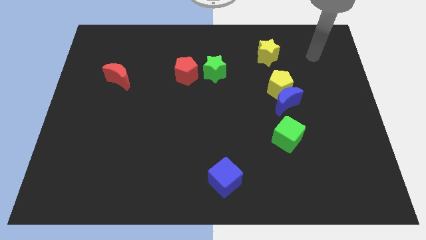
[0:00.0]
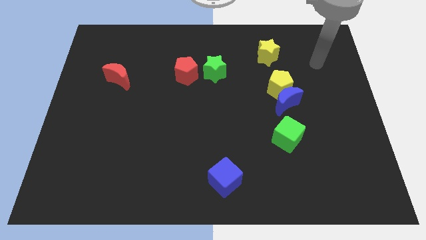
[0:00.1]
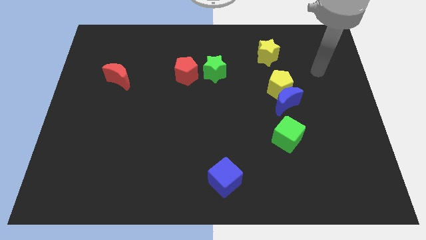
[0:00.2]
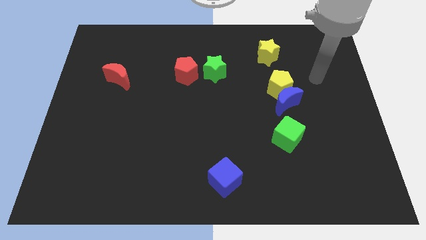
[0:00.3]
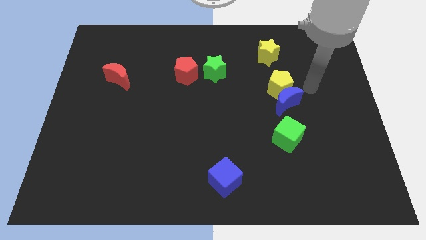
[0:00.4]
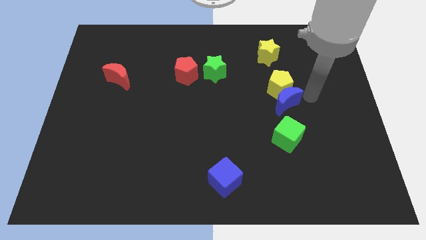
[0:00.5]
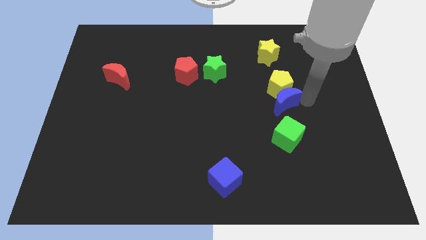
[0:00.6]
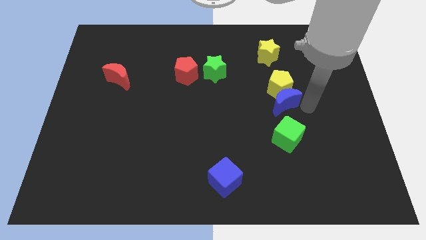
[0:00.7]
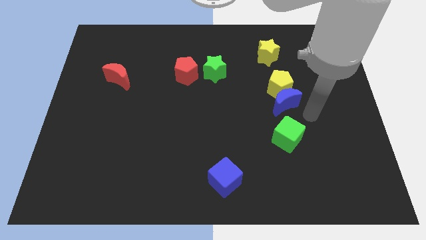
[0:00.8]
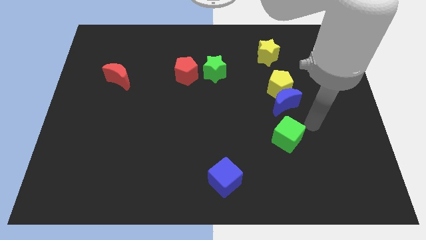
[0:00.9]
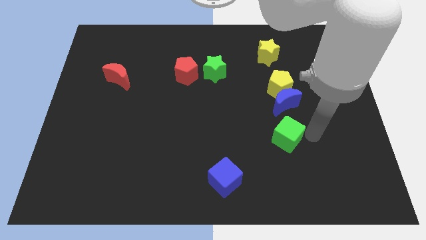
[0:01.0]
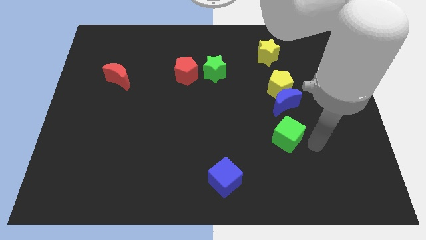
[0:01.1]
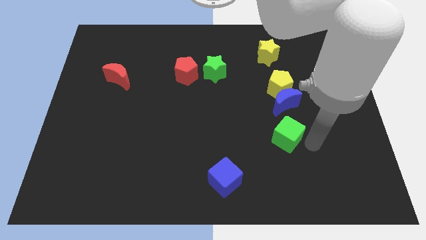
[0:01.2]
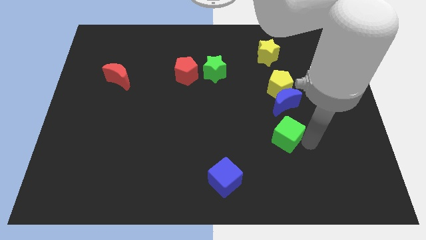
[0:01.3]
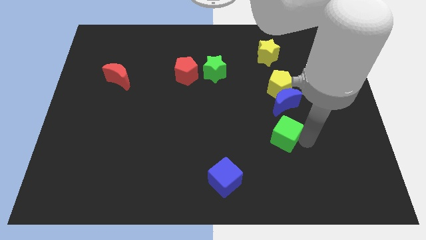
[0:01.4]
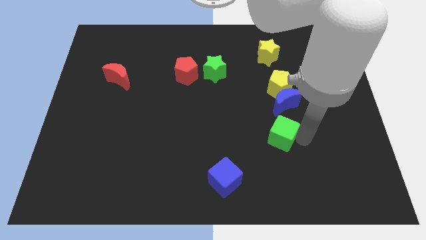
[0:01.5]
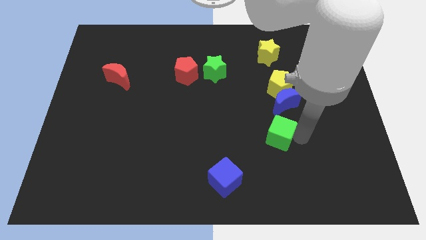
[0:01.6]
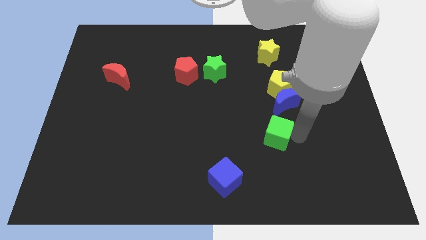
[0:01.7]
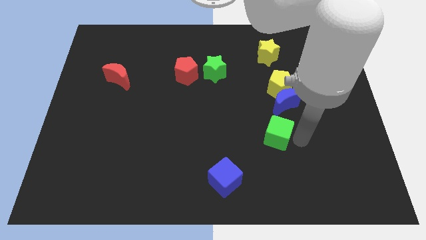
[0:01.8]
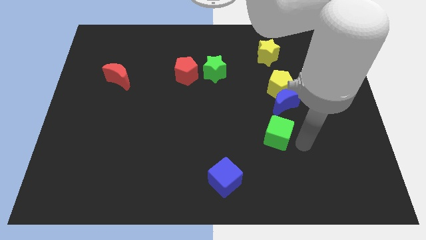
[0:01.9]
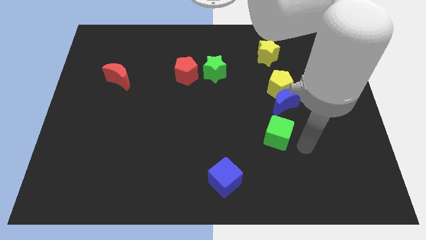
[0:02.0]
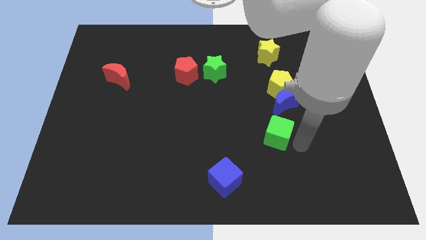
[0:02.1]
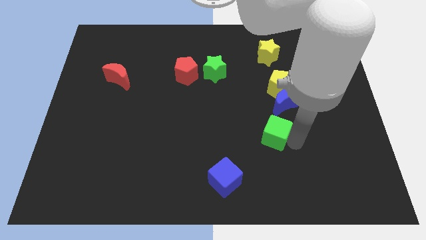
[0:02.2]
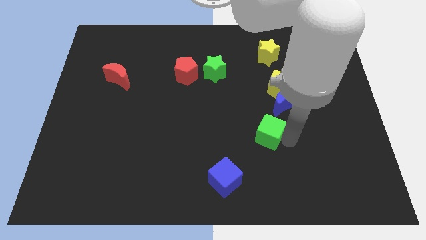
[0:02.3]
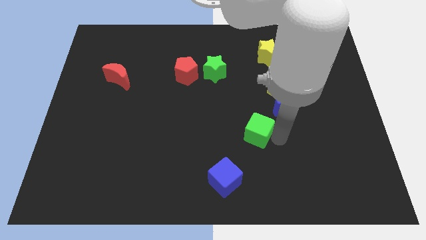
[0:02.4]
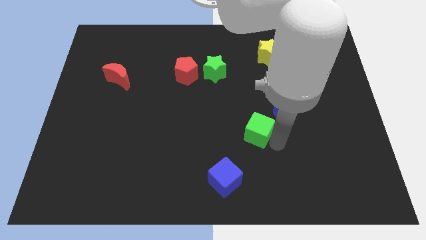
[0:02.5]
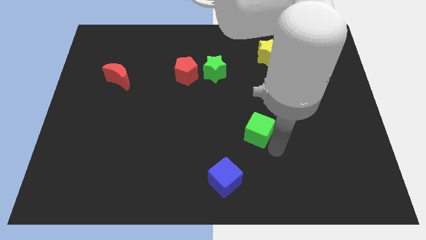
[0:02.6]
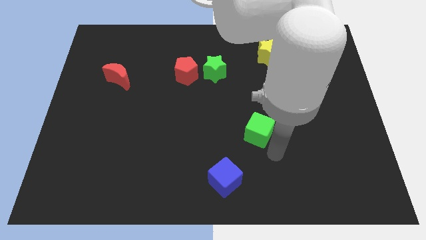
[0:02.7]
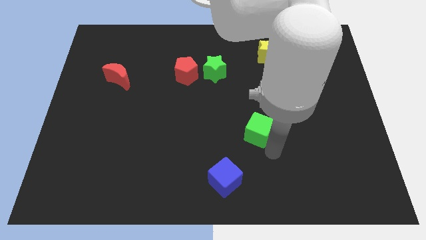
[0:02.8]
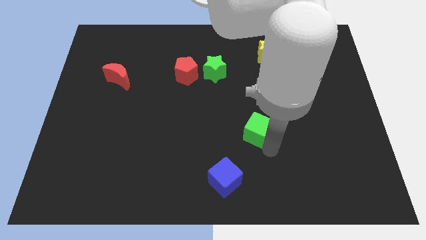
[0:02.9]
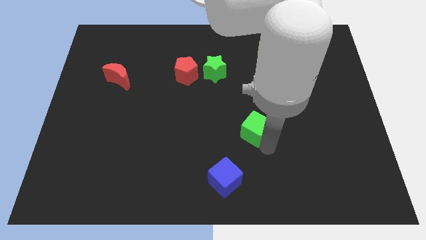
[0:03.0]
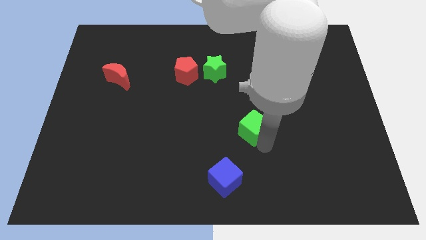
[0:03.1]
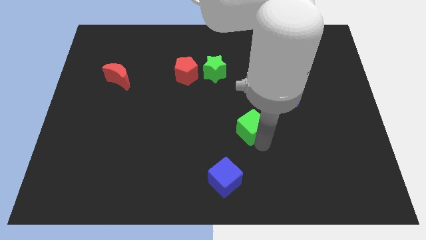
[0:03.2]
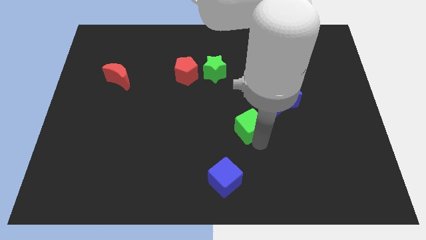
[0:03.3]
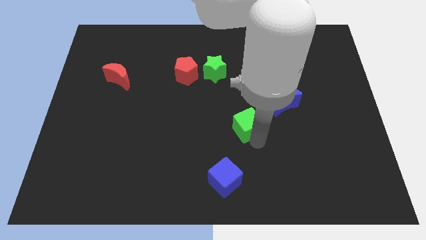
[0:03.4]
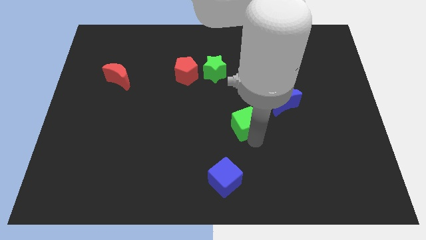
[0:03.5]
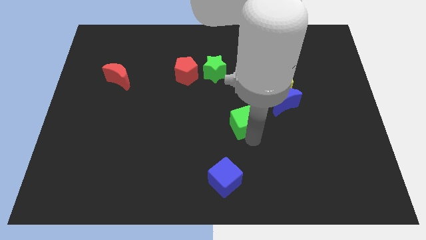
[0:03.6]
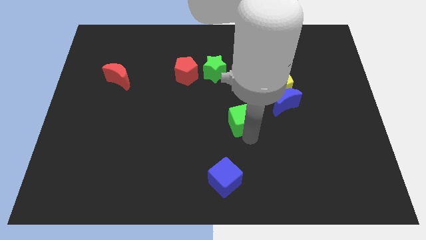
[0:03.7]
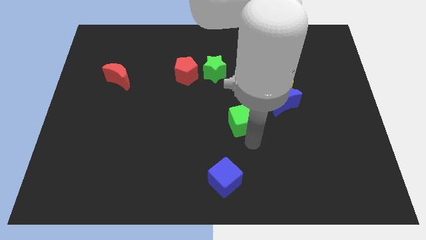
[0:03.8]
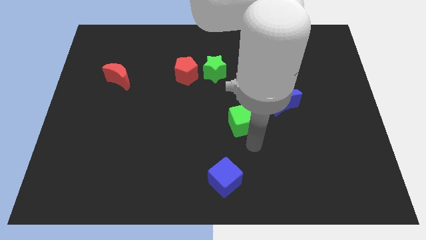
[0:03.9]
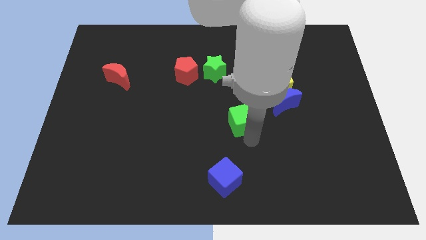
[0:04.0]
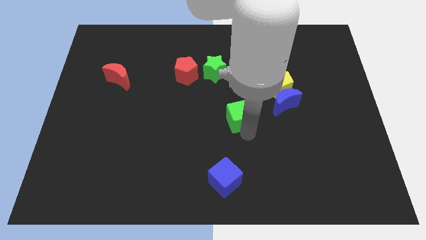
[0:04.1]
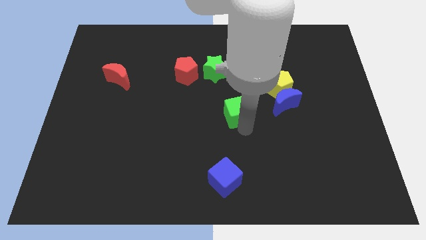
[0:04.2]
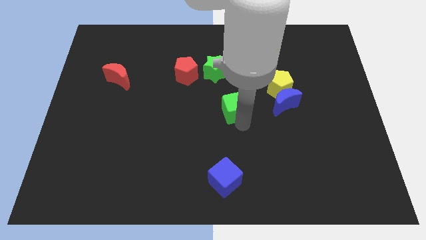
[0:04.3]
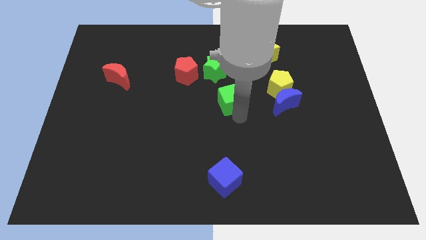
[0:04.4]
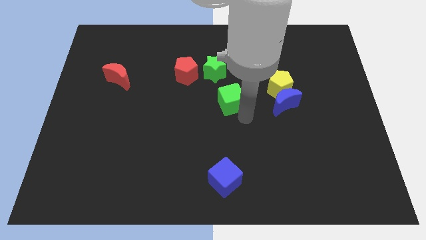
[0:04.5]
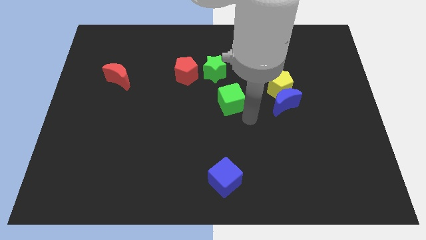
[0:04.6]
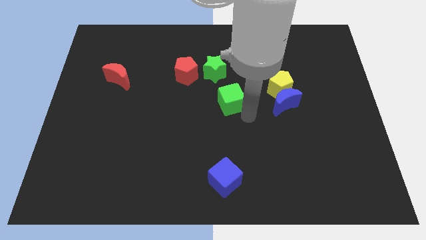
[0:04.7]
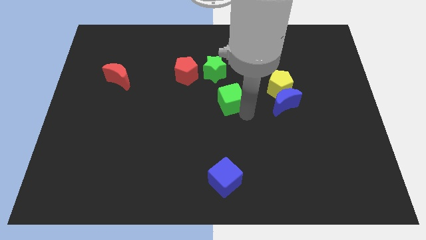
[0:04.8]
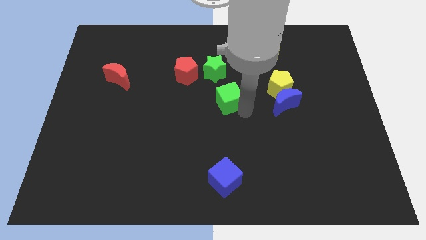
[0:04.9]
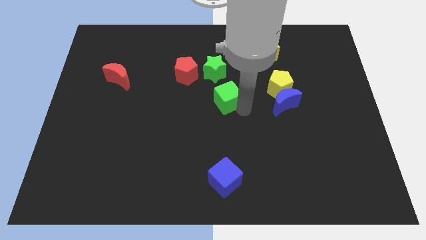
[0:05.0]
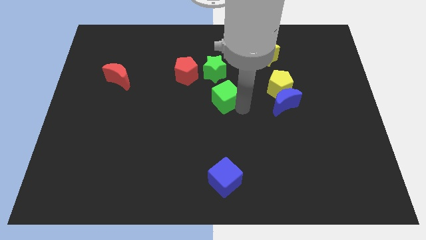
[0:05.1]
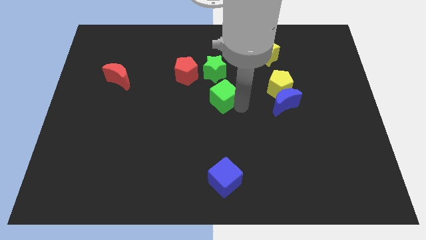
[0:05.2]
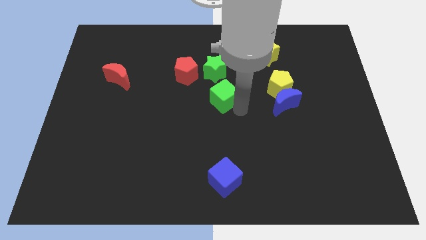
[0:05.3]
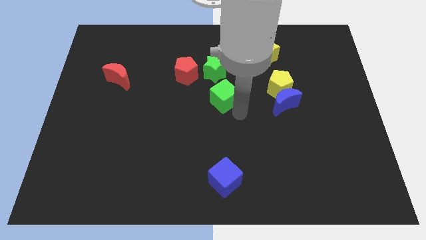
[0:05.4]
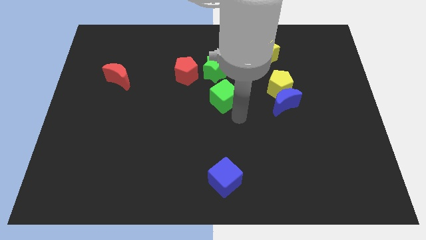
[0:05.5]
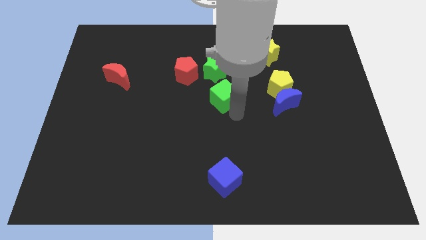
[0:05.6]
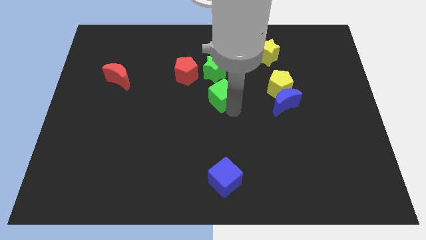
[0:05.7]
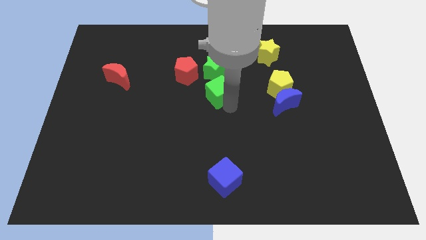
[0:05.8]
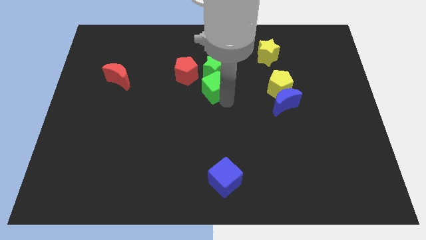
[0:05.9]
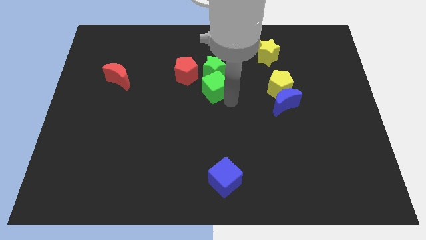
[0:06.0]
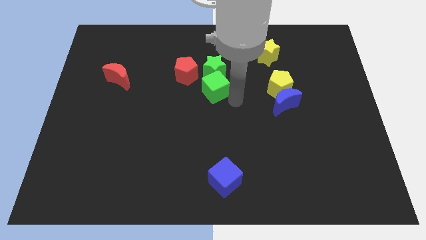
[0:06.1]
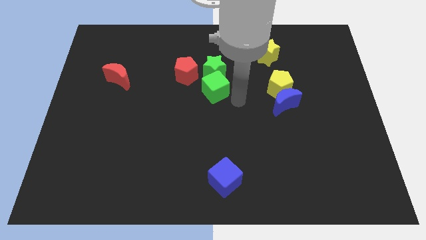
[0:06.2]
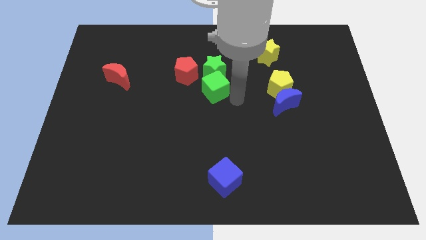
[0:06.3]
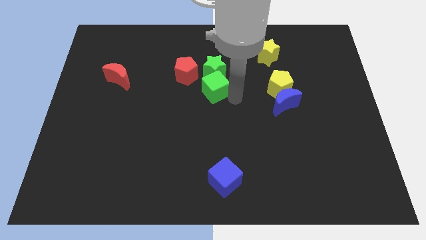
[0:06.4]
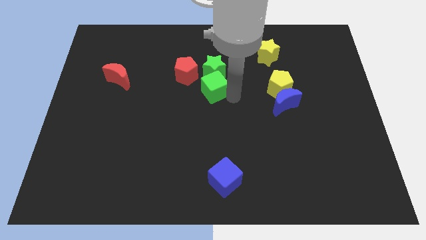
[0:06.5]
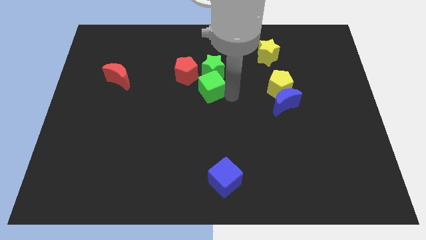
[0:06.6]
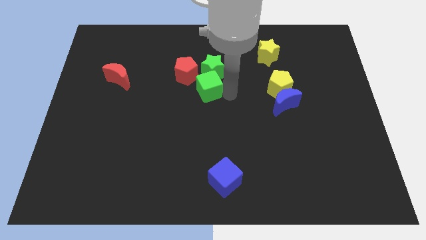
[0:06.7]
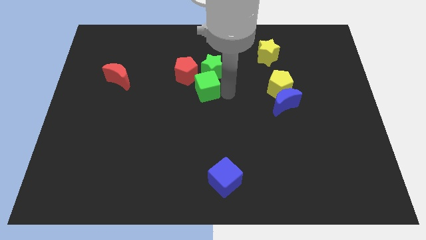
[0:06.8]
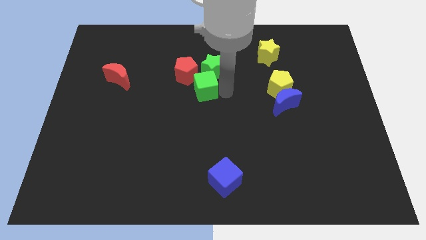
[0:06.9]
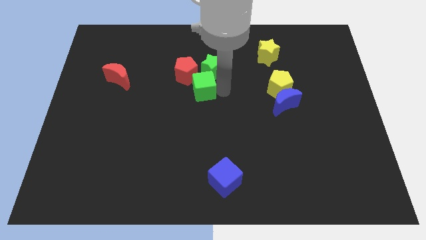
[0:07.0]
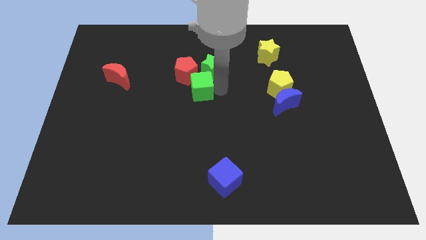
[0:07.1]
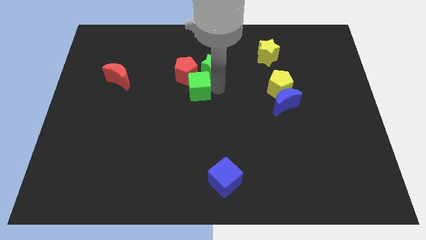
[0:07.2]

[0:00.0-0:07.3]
push the green cube close to the red pentagon
